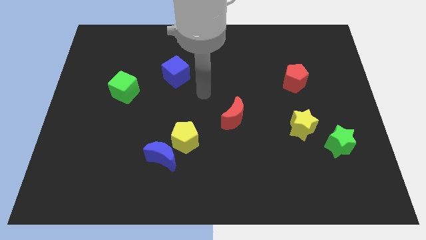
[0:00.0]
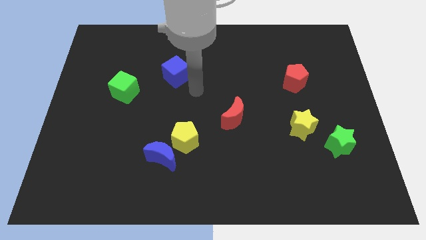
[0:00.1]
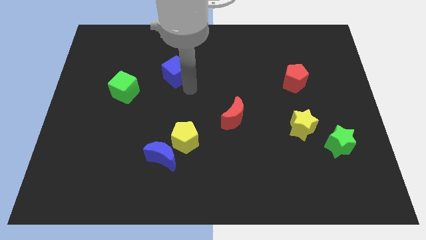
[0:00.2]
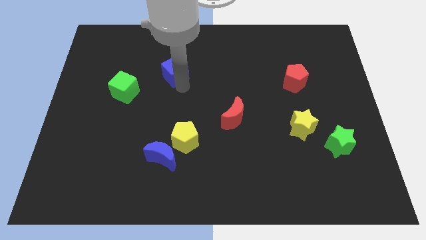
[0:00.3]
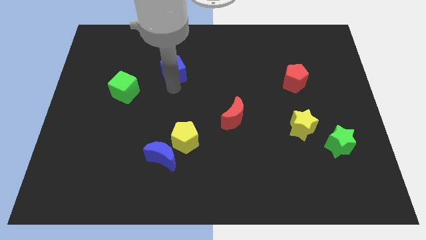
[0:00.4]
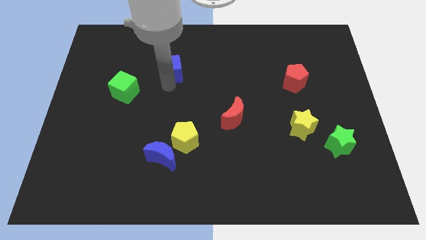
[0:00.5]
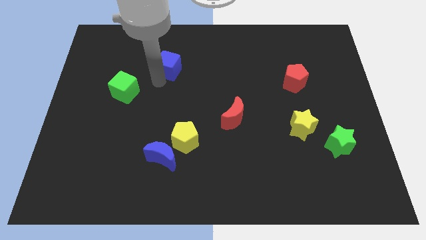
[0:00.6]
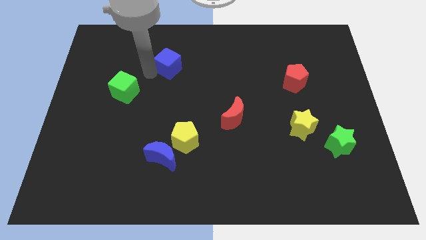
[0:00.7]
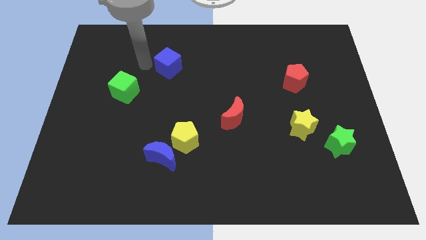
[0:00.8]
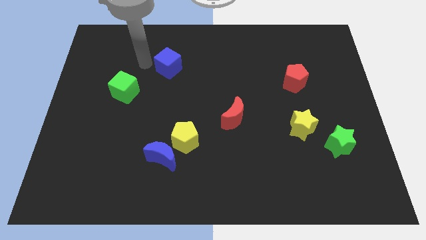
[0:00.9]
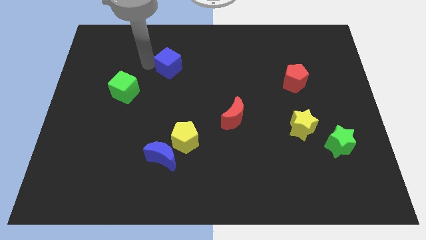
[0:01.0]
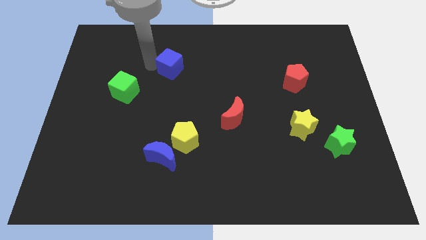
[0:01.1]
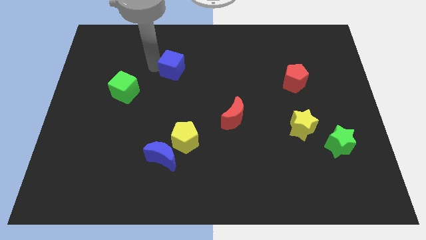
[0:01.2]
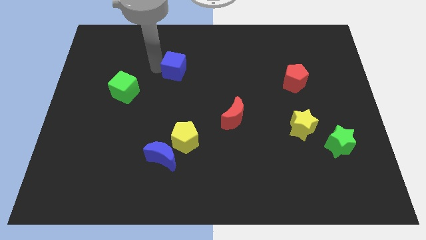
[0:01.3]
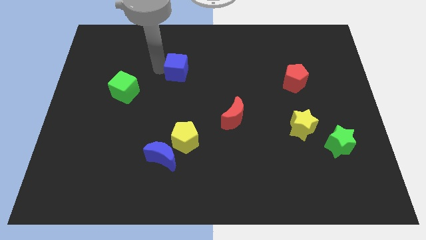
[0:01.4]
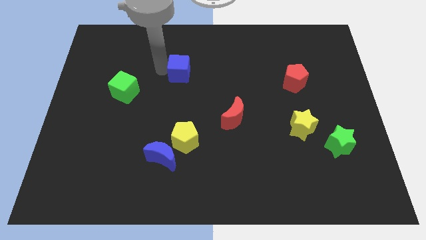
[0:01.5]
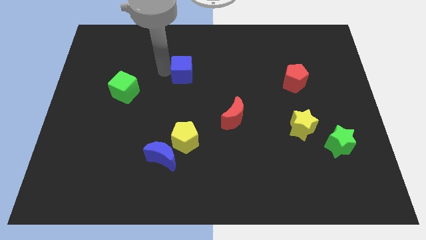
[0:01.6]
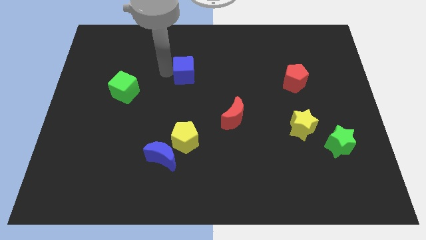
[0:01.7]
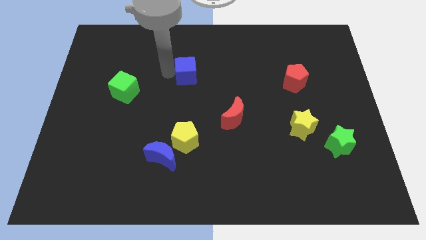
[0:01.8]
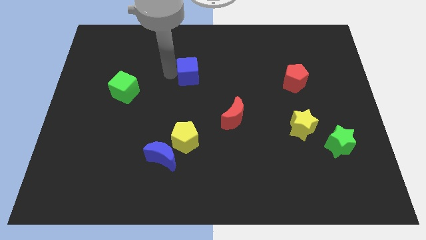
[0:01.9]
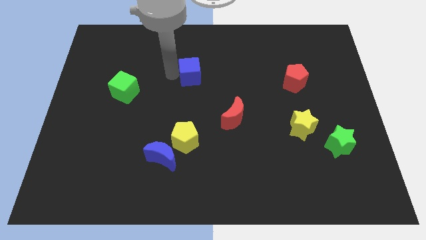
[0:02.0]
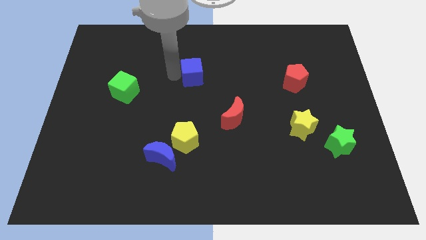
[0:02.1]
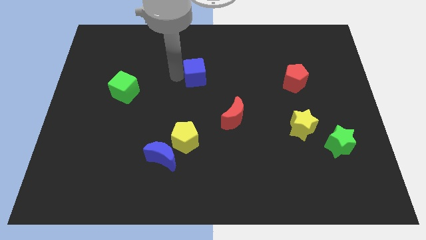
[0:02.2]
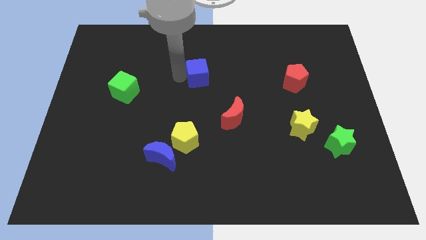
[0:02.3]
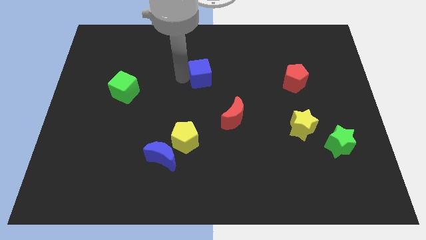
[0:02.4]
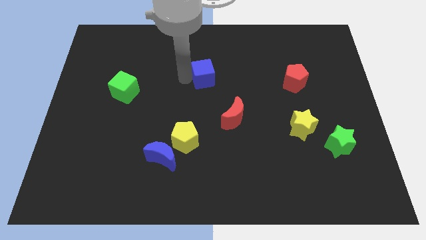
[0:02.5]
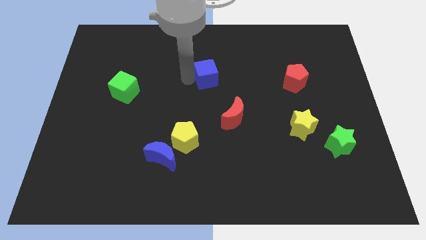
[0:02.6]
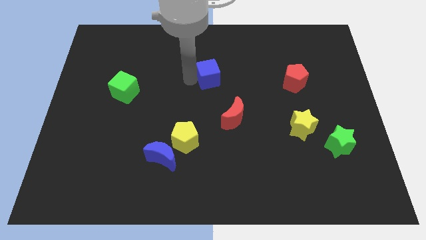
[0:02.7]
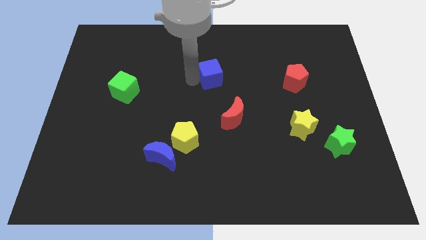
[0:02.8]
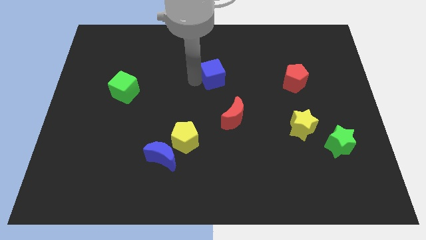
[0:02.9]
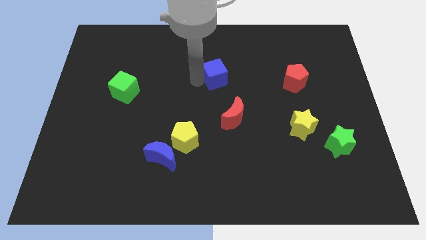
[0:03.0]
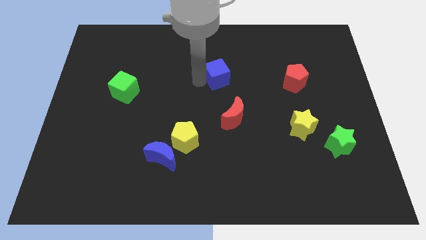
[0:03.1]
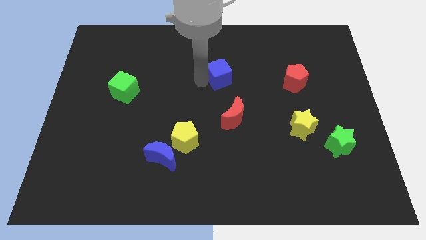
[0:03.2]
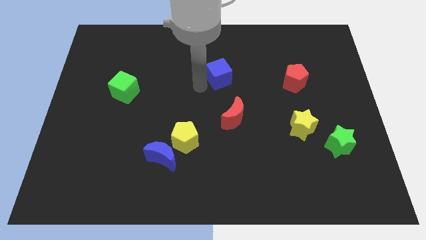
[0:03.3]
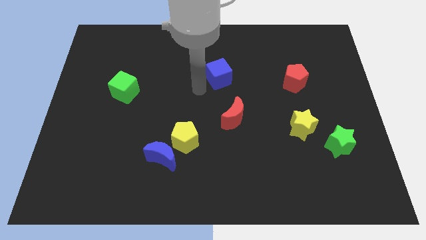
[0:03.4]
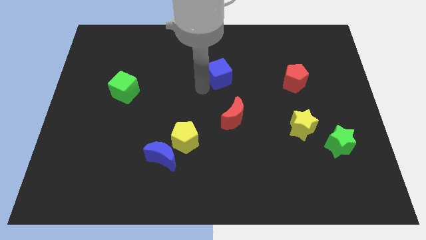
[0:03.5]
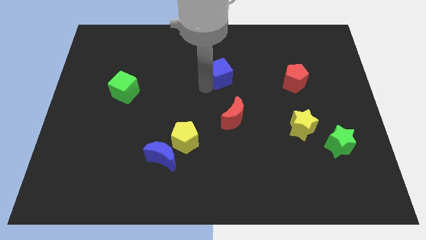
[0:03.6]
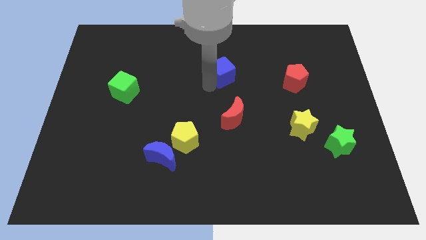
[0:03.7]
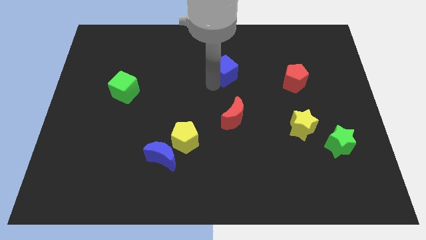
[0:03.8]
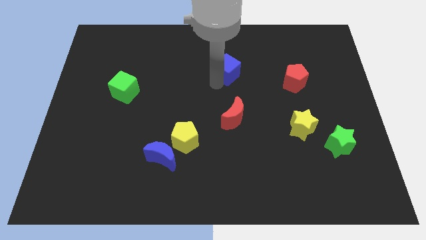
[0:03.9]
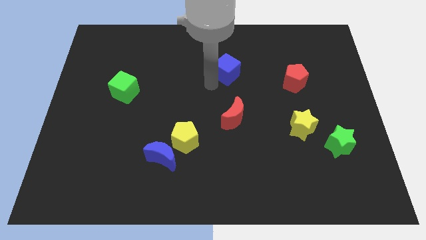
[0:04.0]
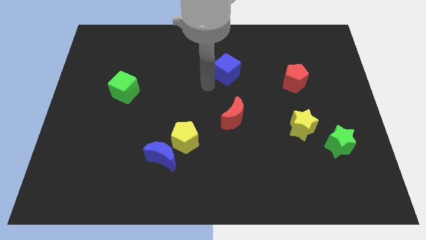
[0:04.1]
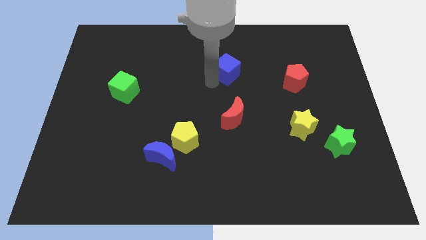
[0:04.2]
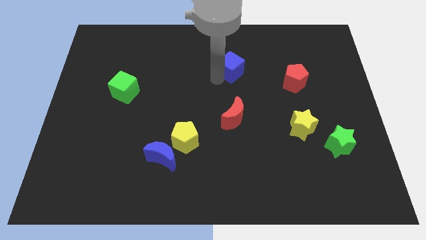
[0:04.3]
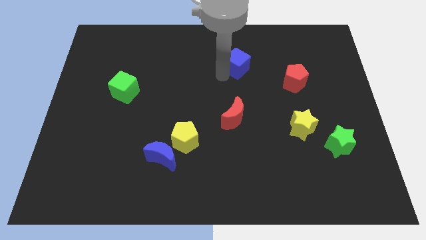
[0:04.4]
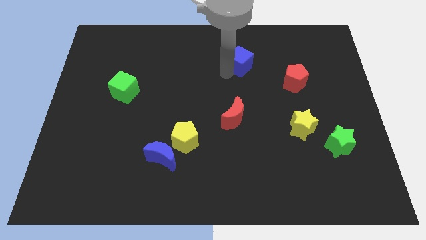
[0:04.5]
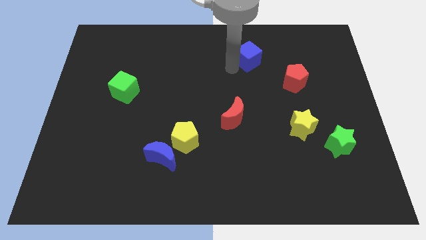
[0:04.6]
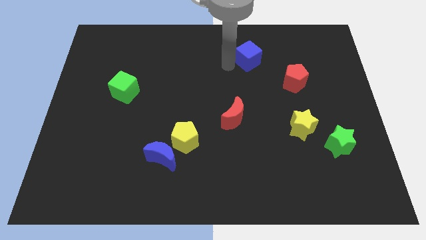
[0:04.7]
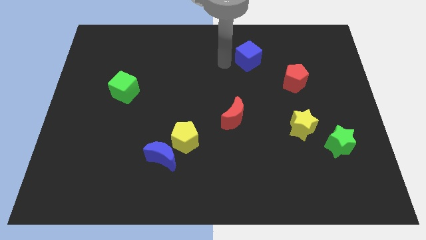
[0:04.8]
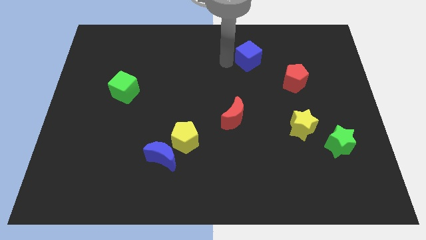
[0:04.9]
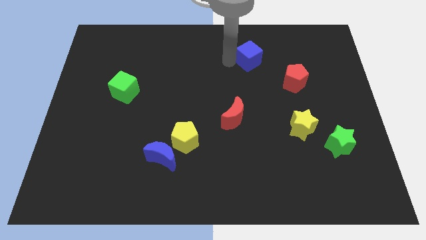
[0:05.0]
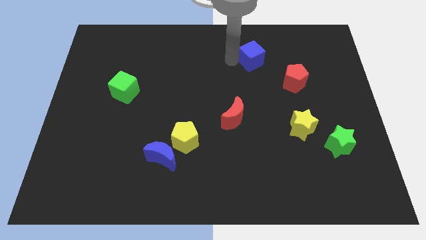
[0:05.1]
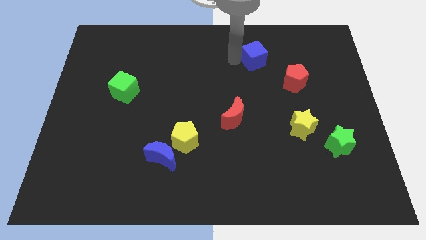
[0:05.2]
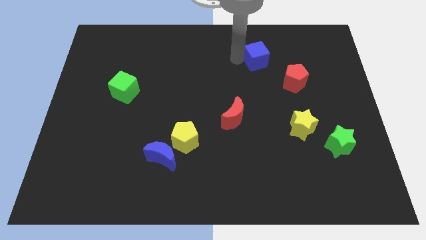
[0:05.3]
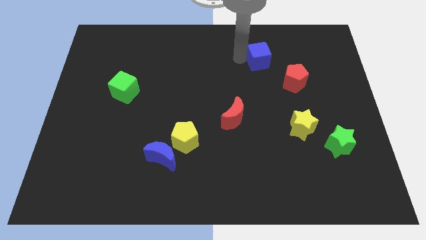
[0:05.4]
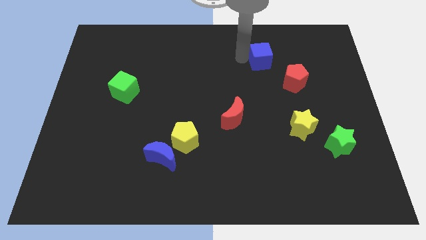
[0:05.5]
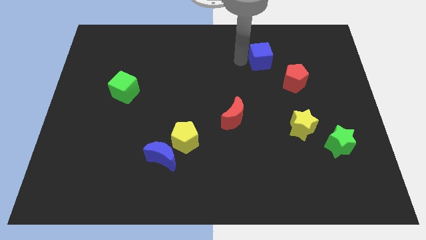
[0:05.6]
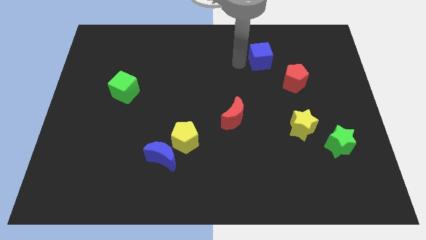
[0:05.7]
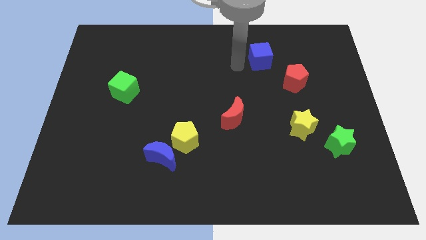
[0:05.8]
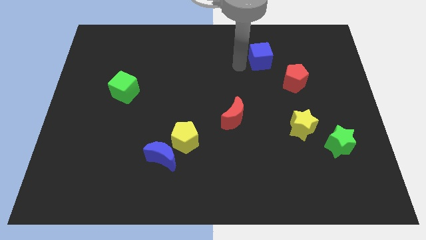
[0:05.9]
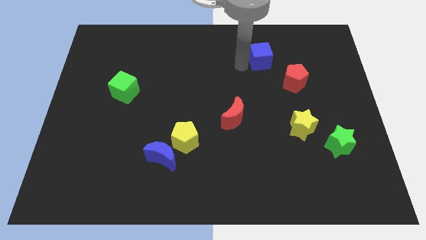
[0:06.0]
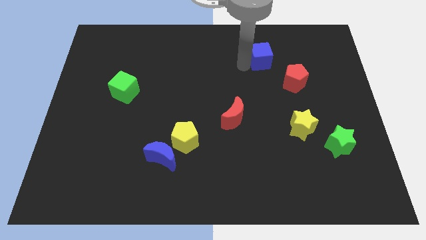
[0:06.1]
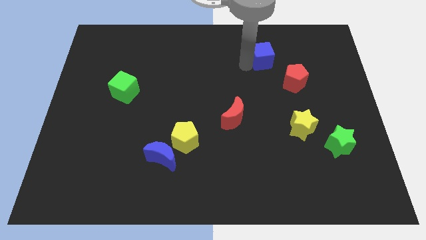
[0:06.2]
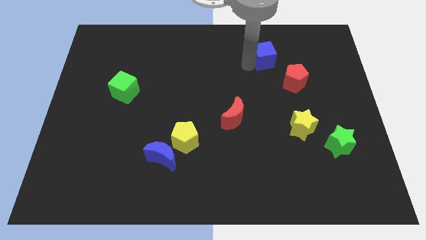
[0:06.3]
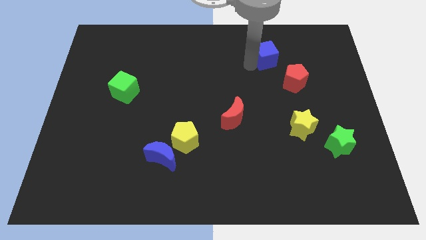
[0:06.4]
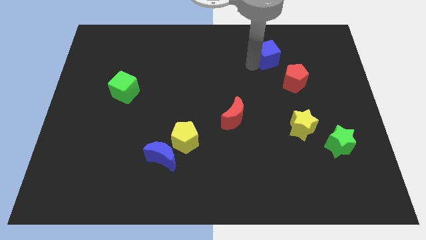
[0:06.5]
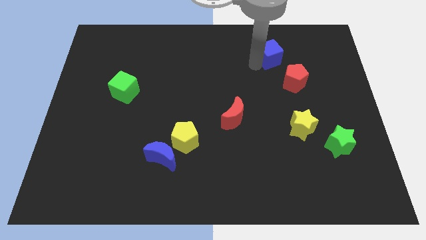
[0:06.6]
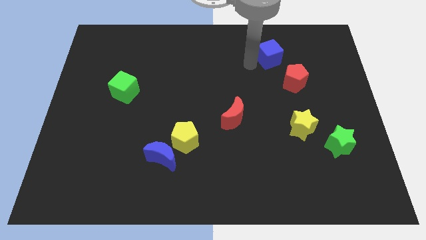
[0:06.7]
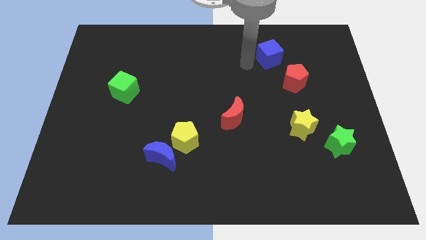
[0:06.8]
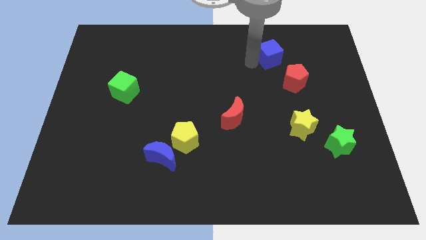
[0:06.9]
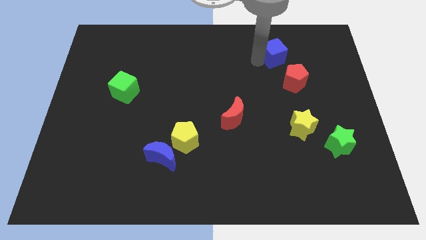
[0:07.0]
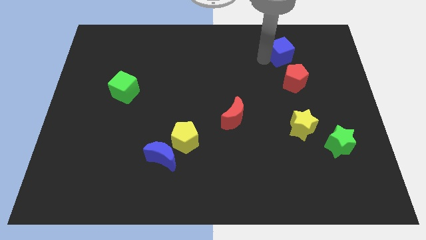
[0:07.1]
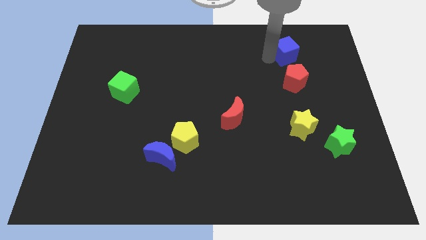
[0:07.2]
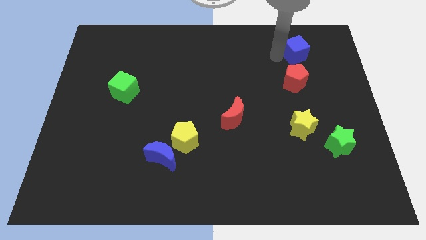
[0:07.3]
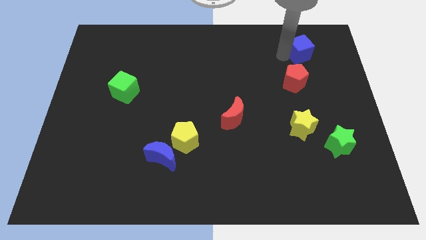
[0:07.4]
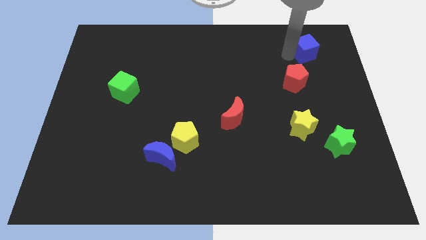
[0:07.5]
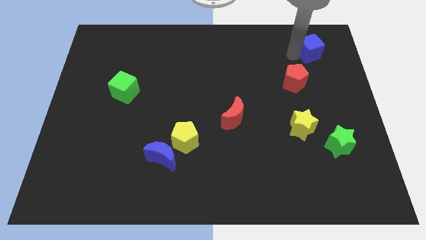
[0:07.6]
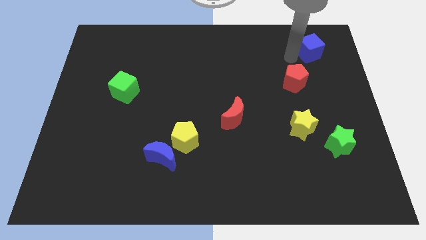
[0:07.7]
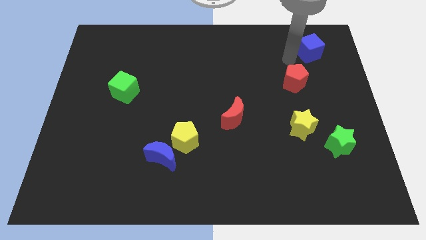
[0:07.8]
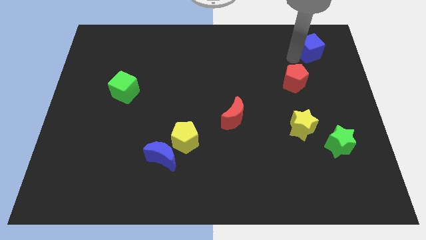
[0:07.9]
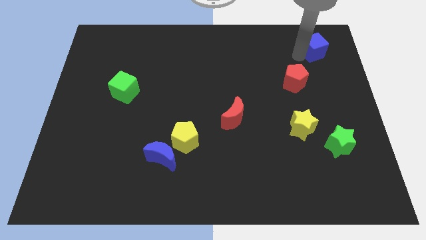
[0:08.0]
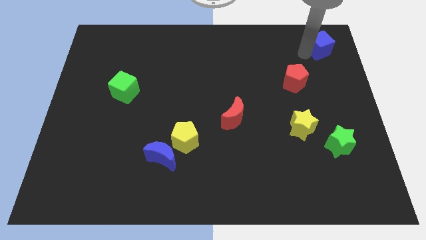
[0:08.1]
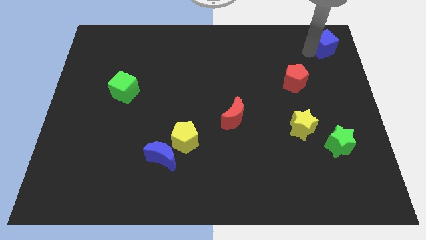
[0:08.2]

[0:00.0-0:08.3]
put the blue cube to the upper right corner
